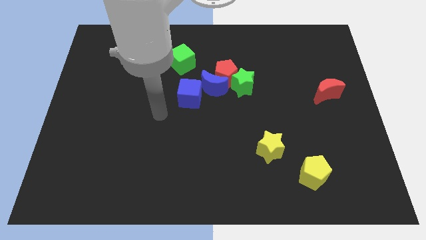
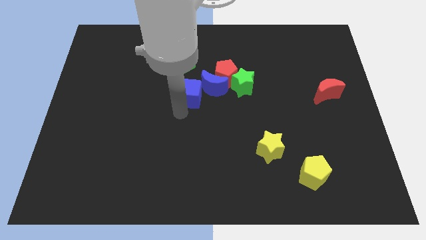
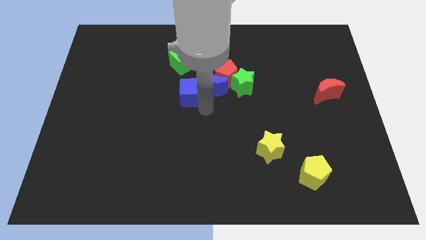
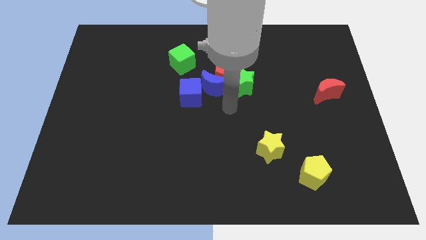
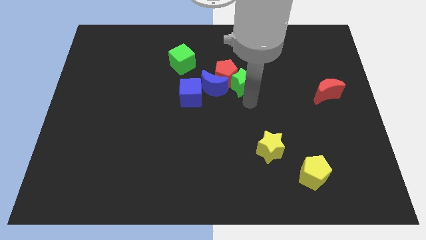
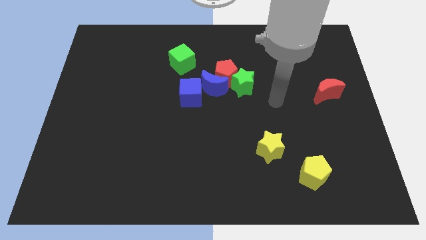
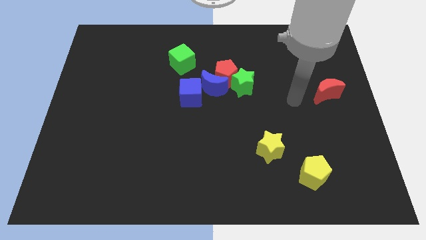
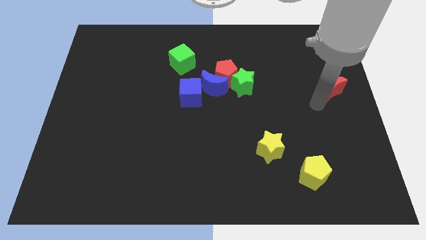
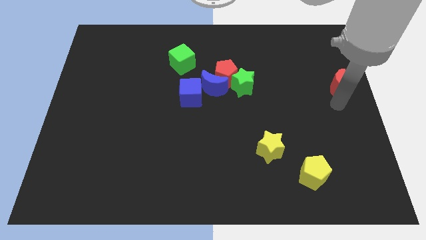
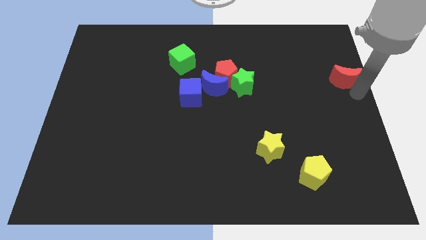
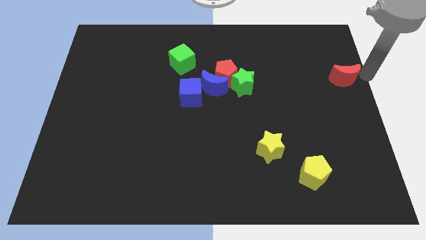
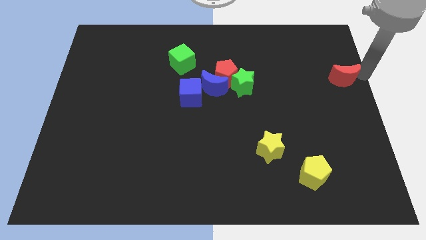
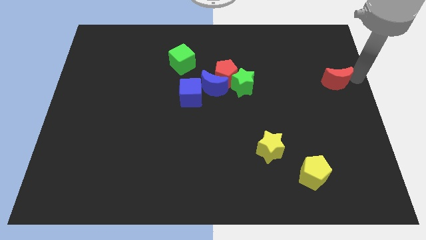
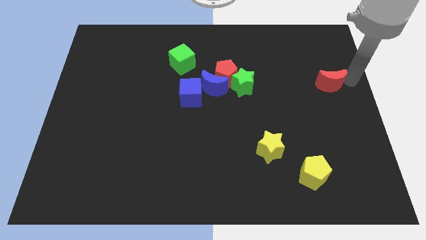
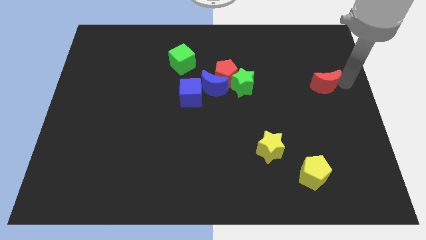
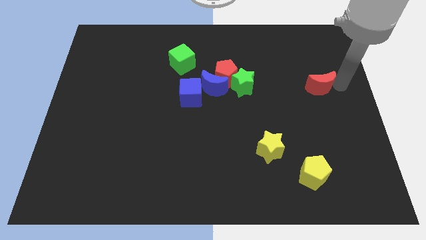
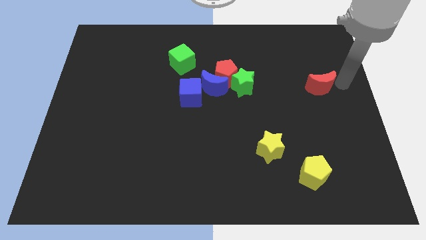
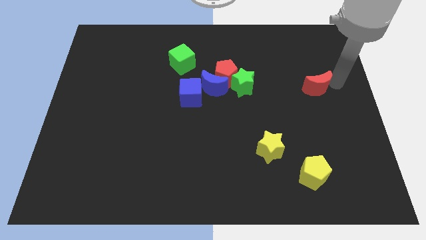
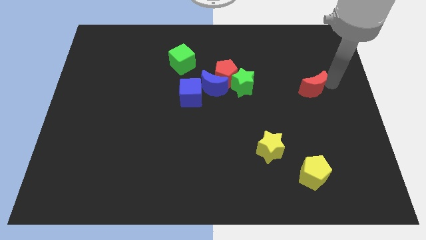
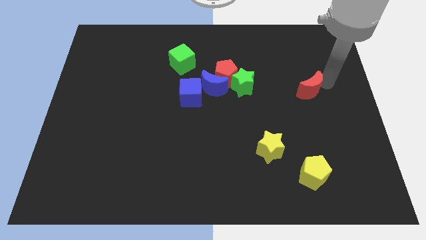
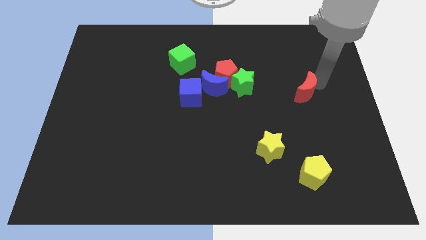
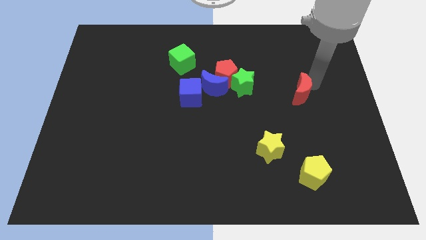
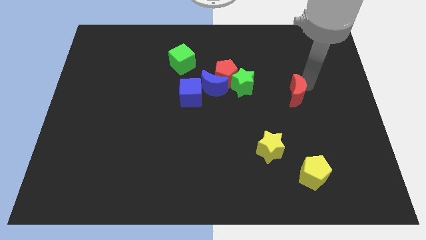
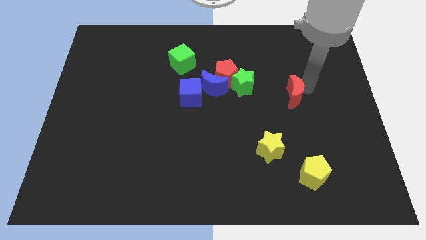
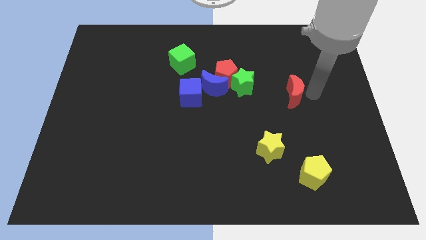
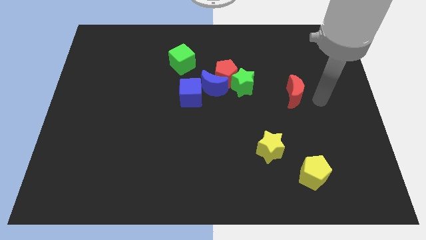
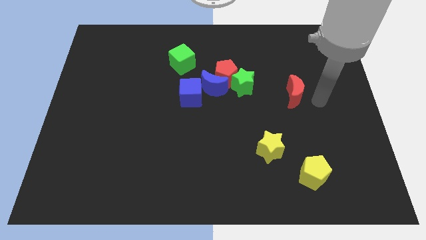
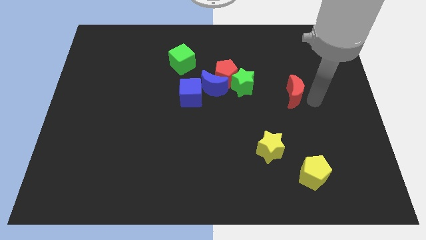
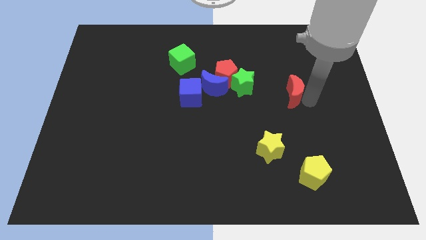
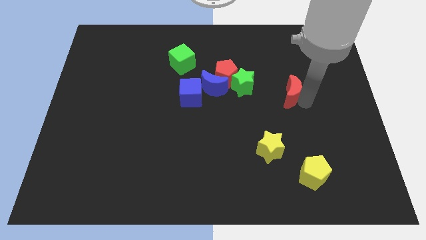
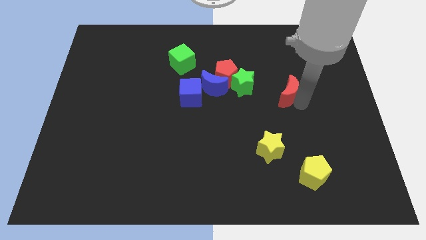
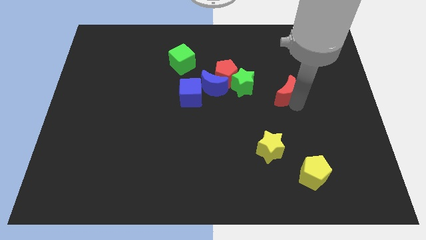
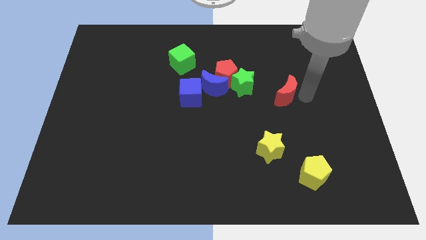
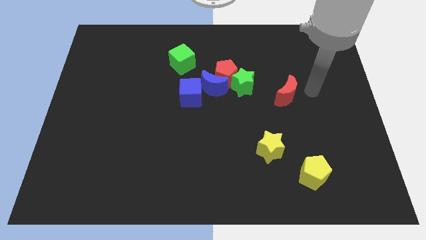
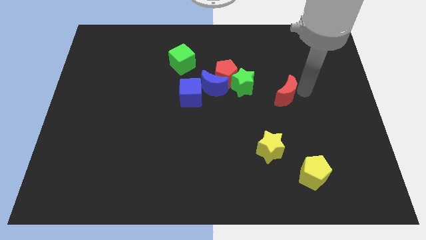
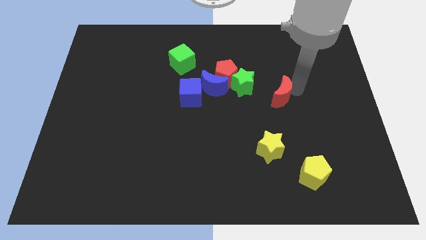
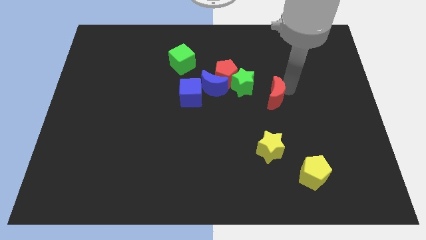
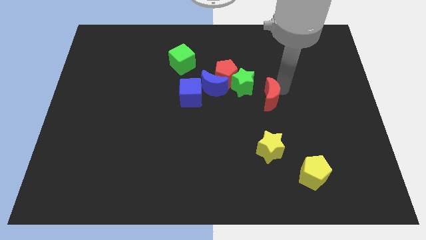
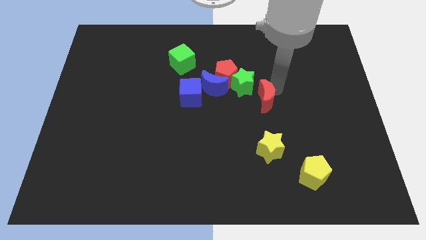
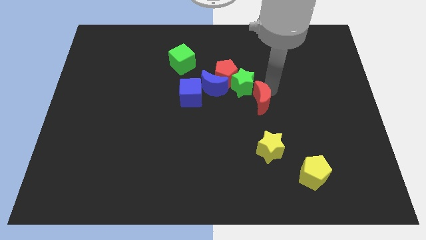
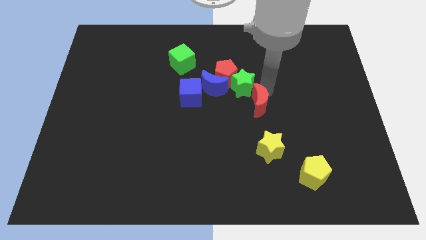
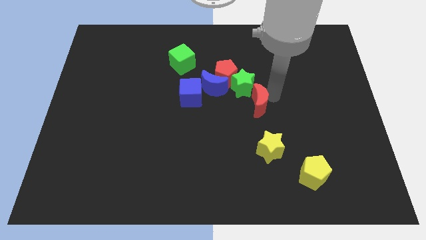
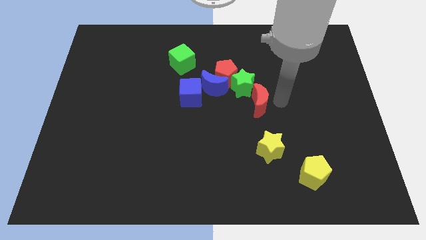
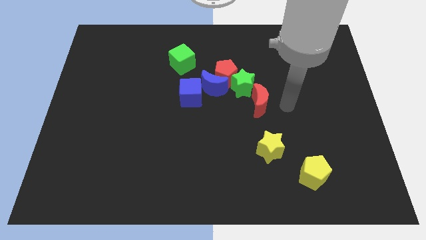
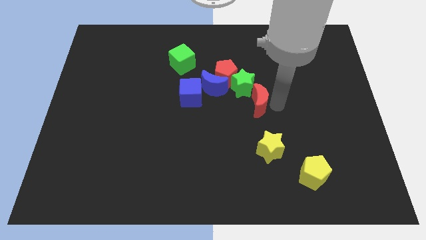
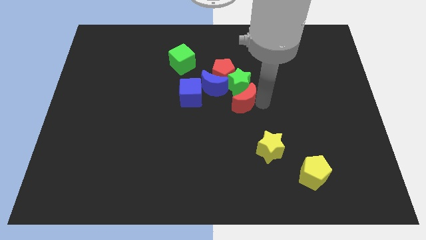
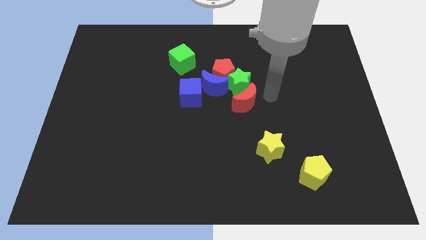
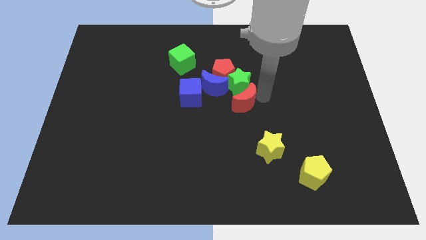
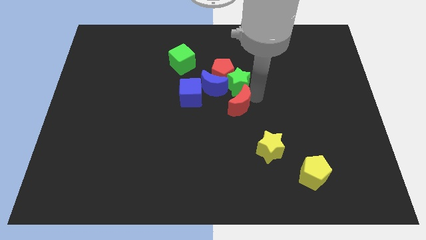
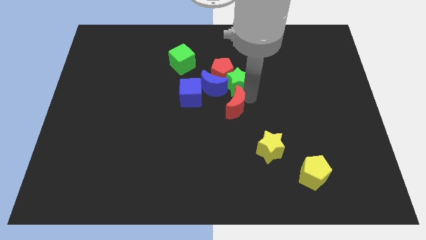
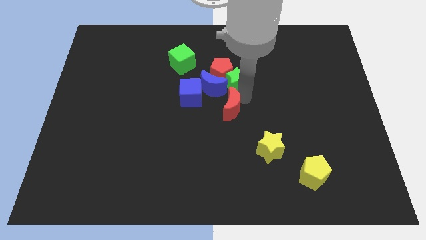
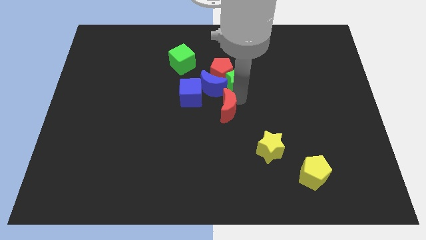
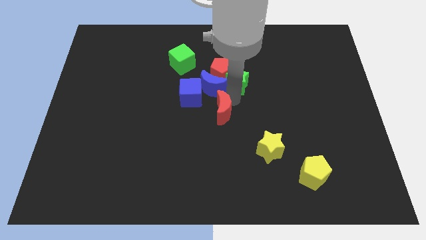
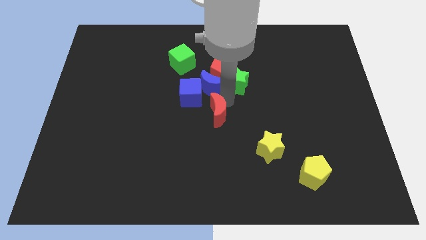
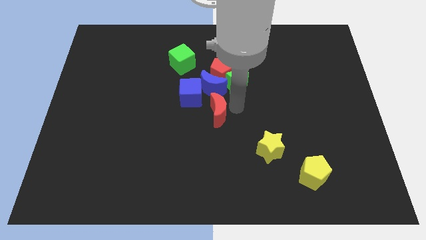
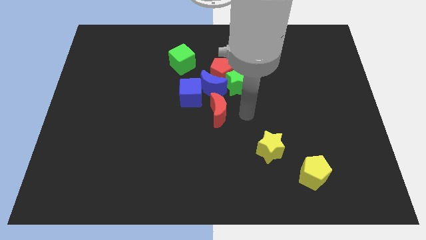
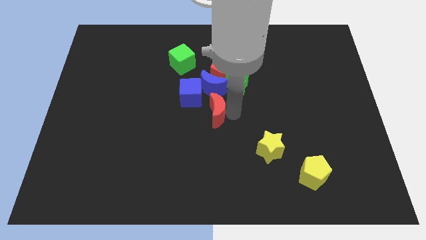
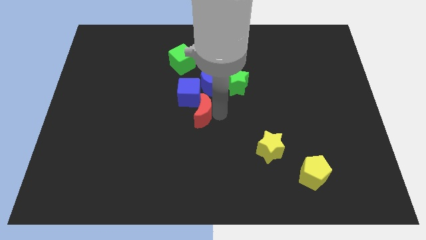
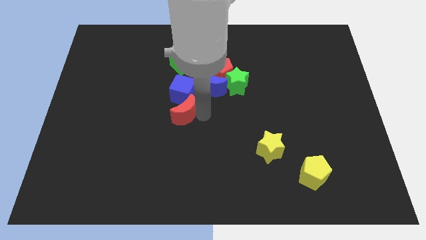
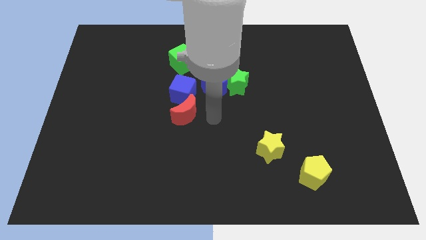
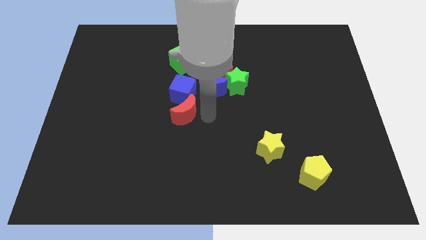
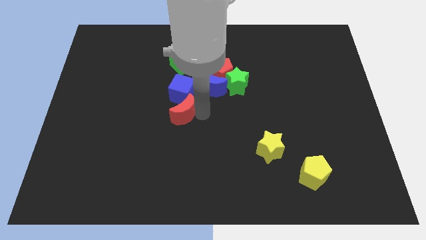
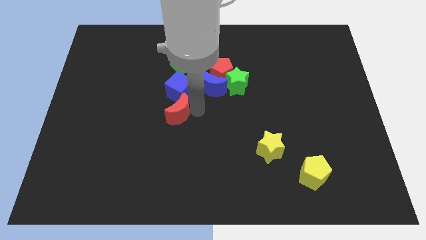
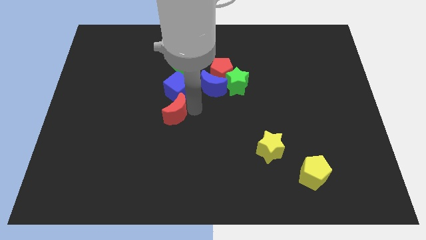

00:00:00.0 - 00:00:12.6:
push the red moon diagonally down and to the left of the blue cube

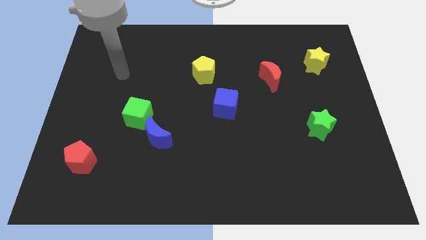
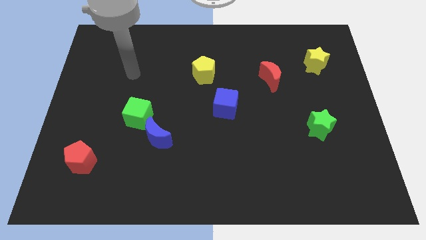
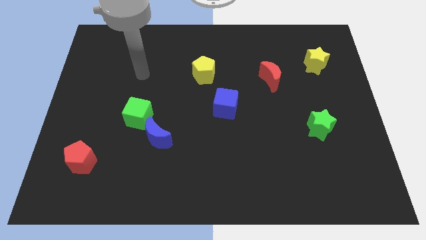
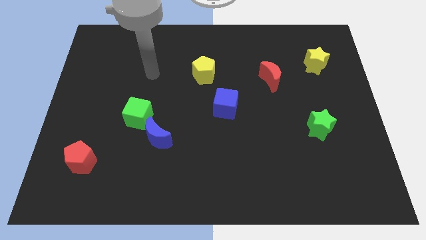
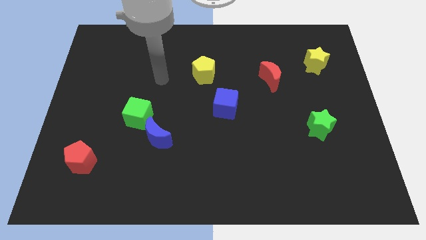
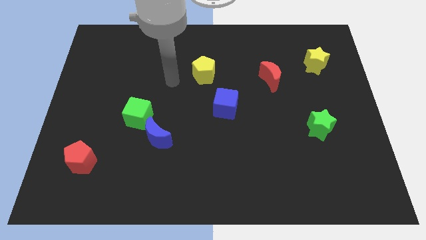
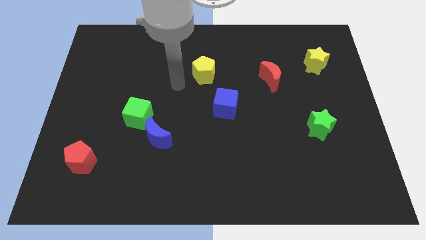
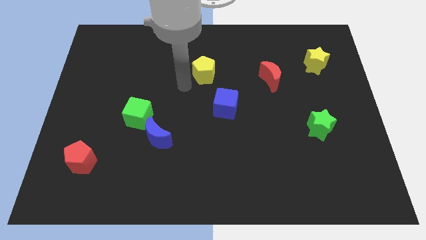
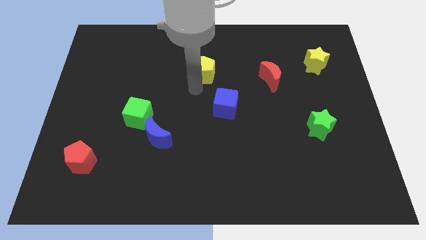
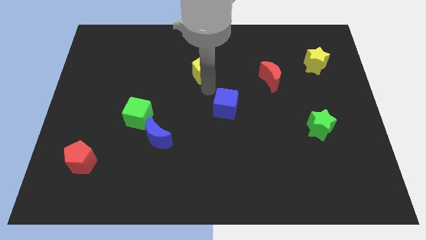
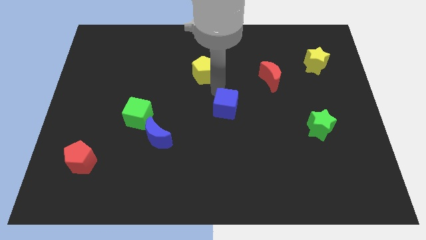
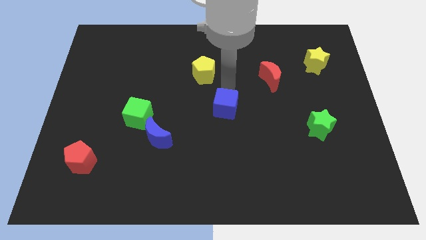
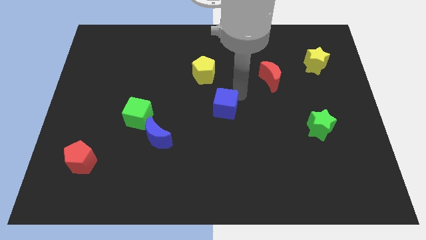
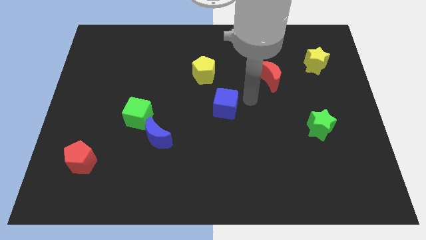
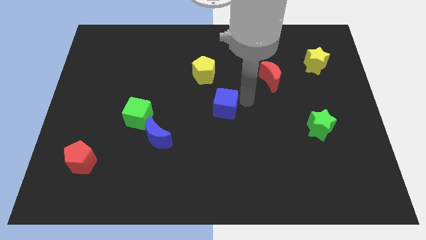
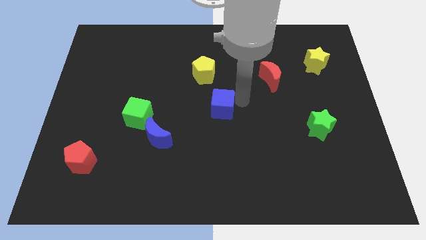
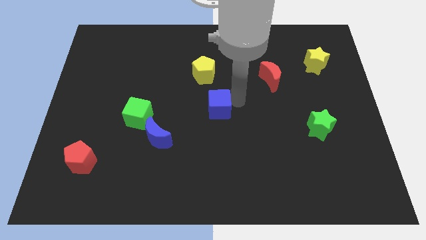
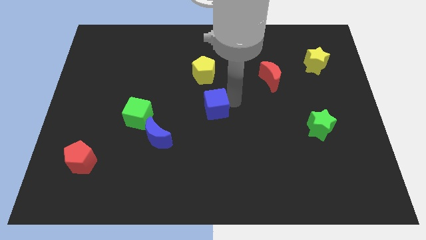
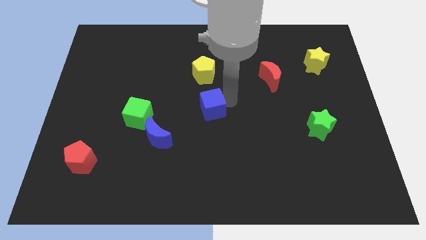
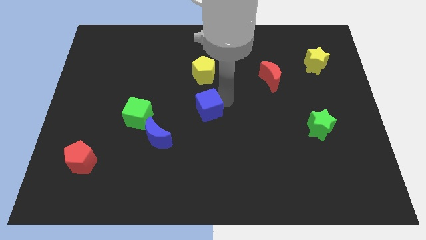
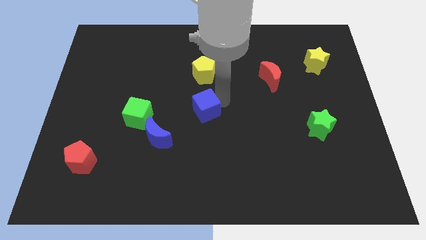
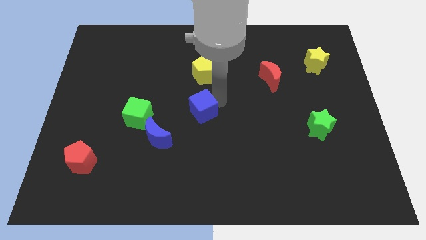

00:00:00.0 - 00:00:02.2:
slide the blue cube to the top right side of the blue moon
